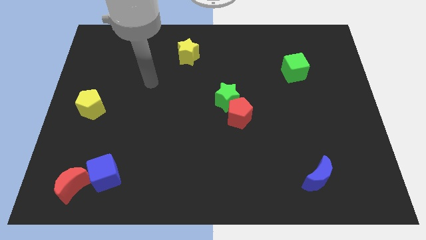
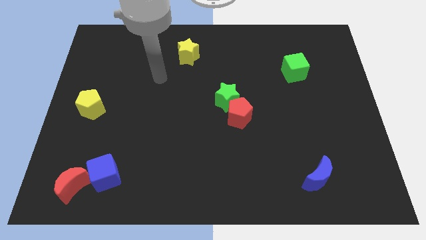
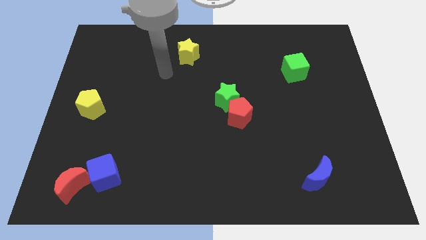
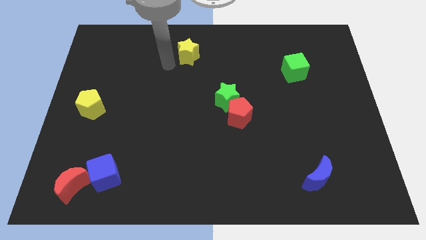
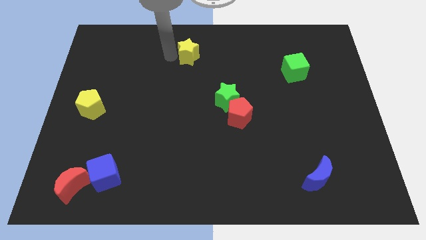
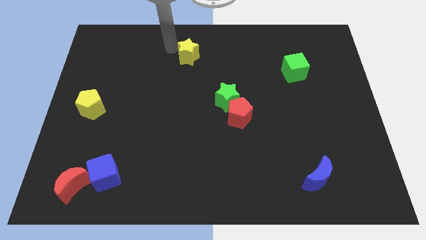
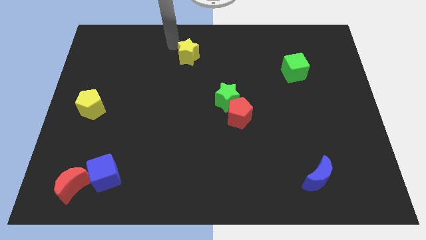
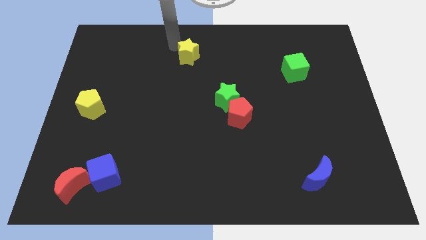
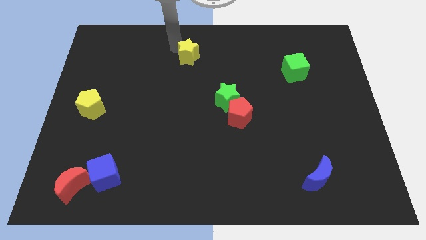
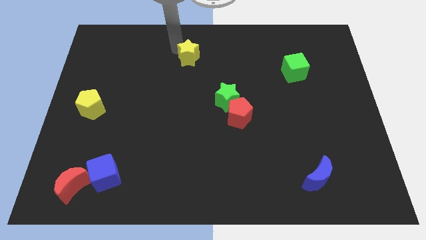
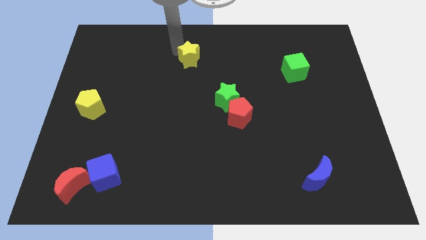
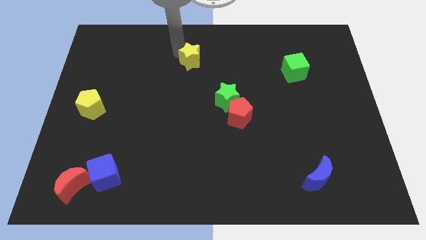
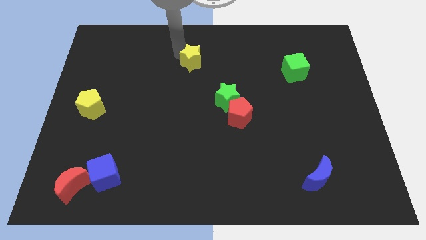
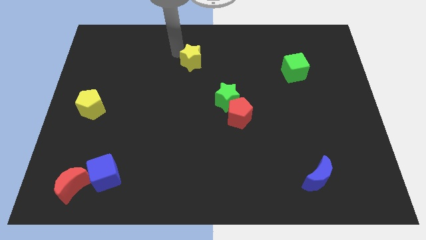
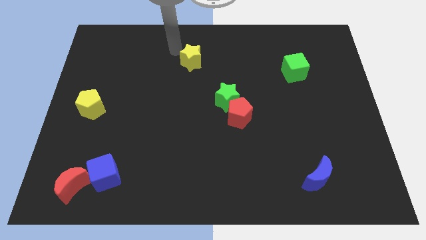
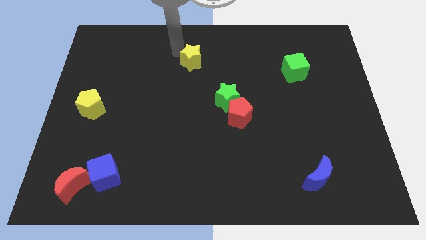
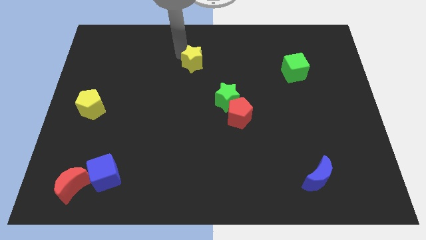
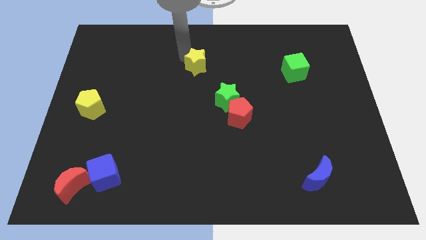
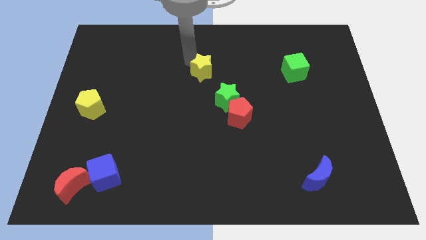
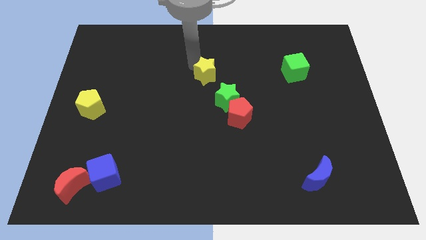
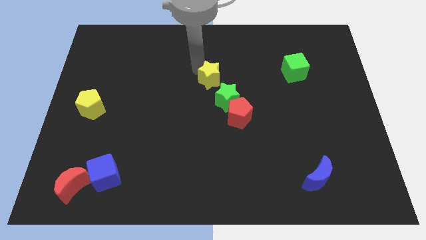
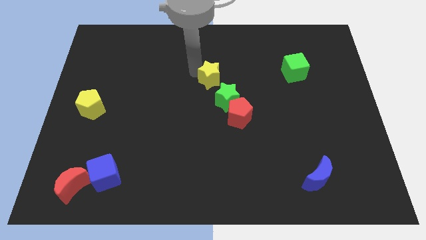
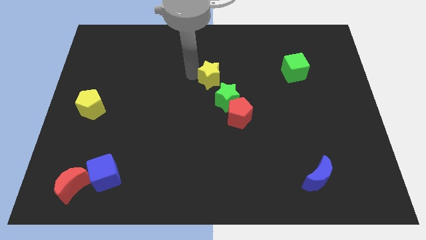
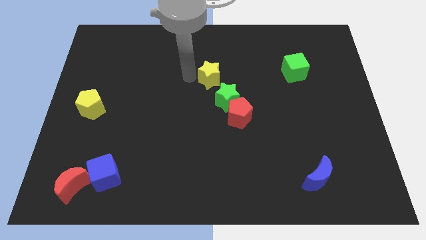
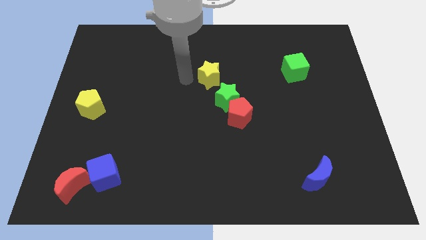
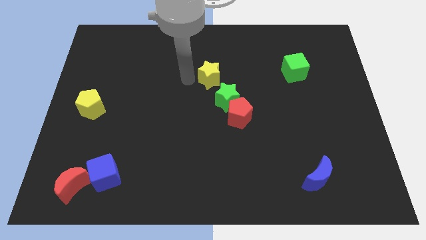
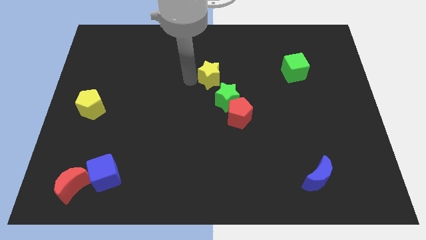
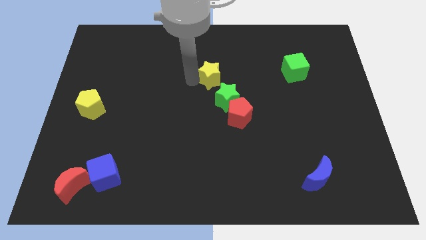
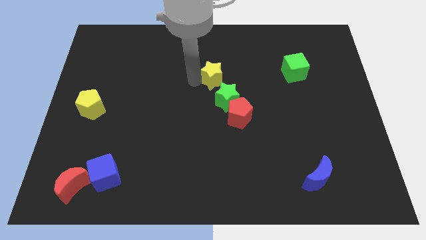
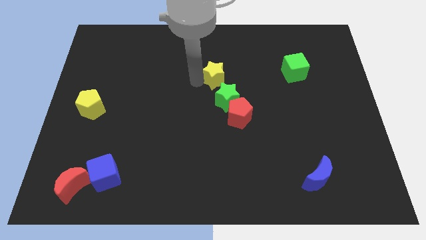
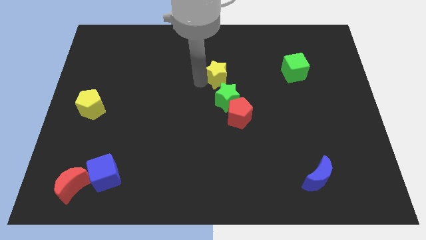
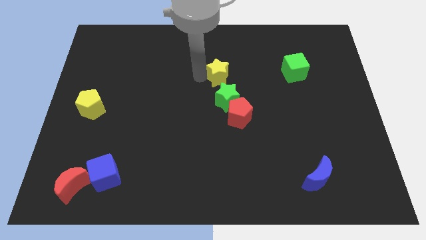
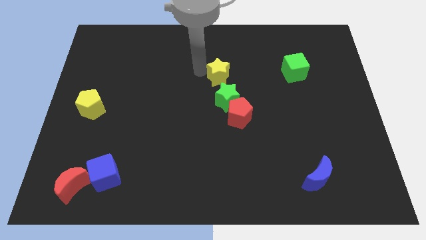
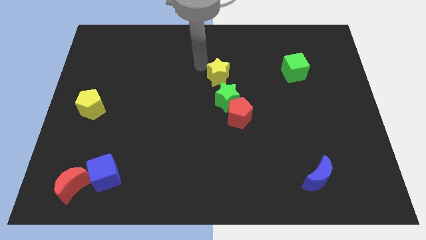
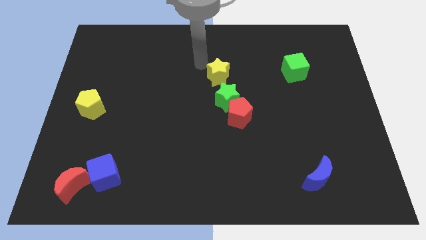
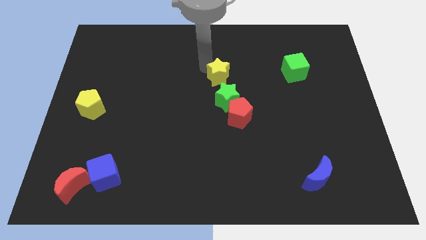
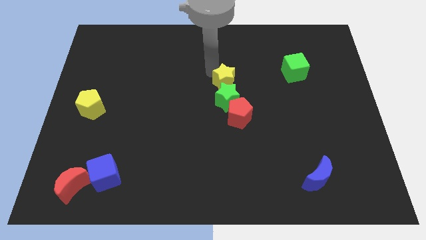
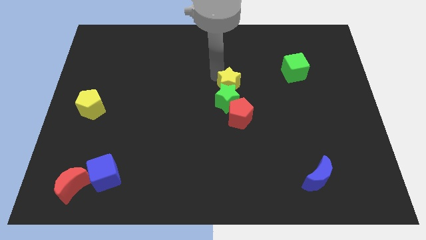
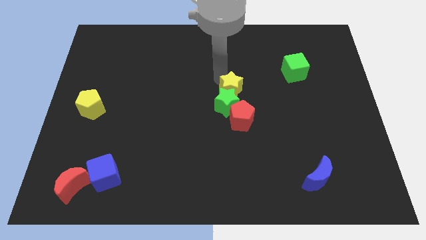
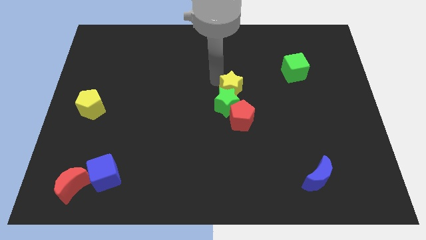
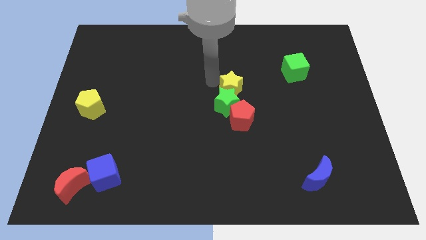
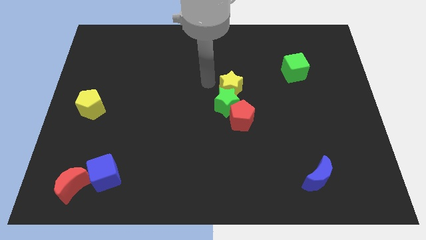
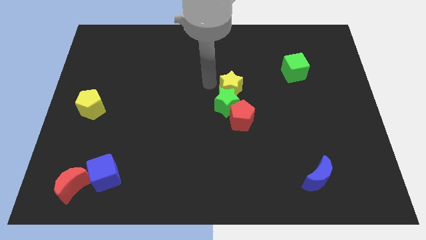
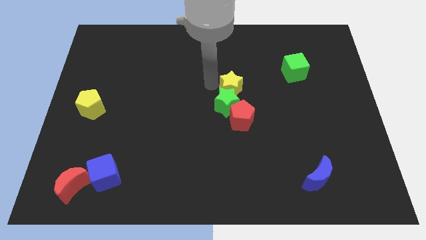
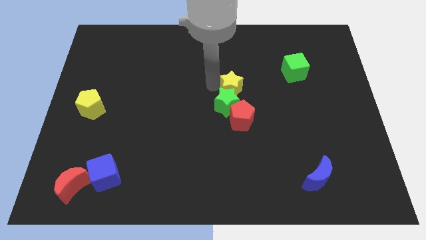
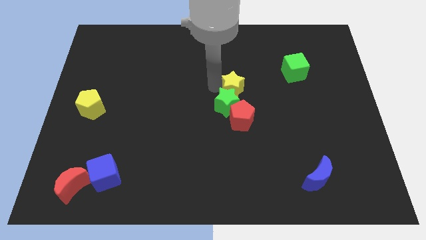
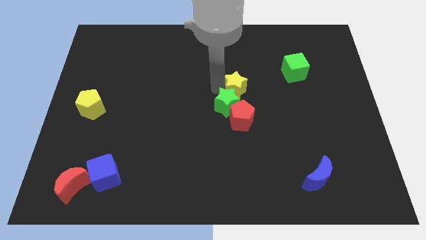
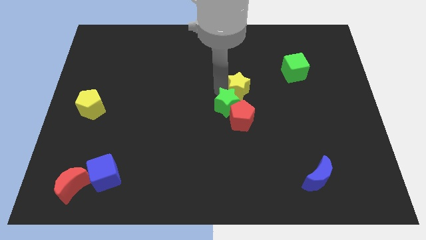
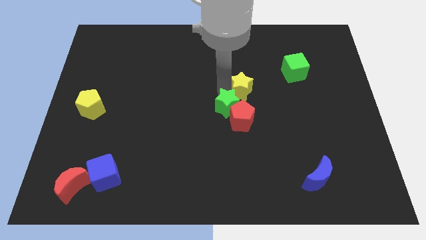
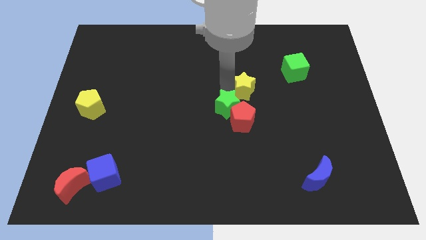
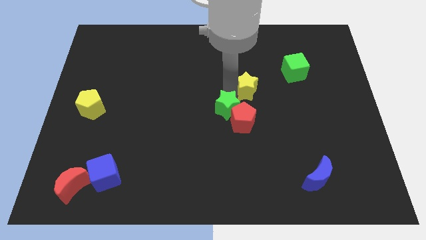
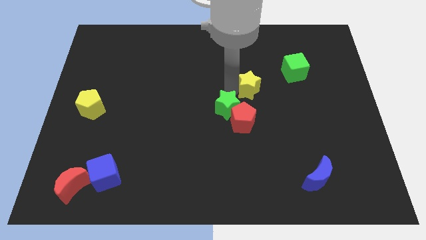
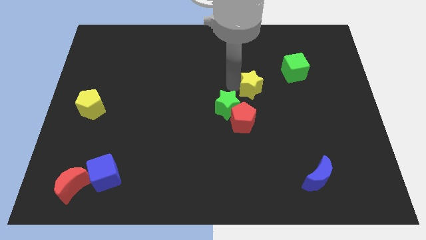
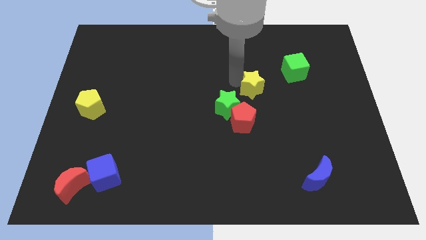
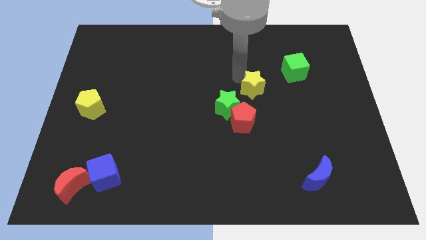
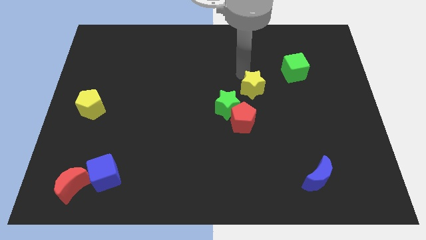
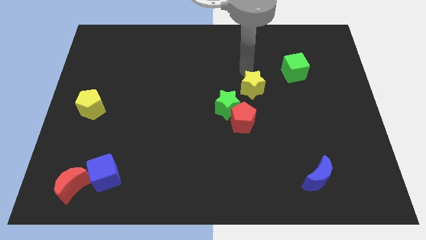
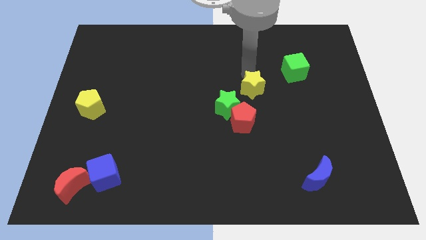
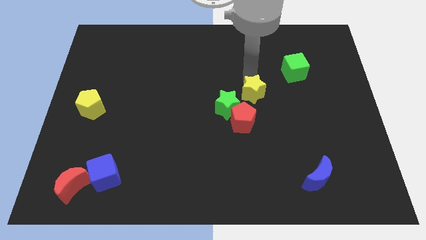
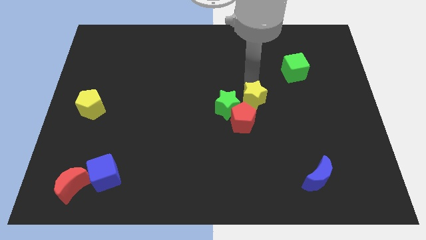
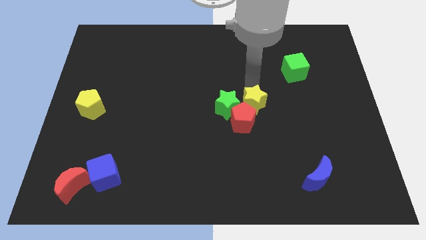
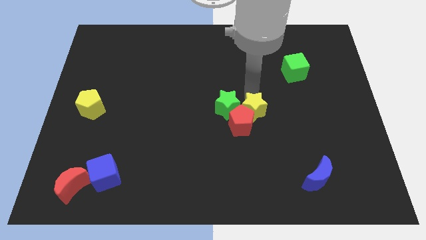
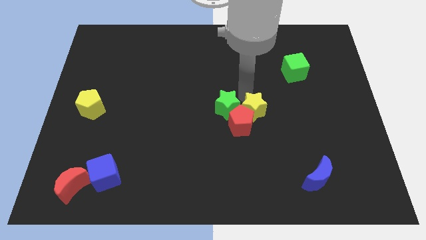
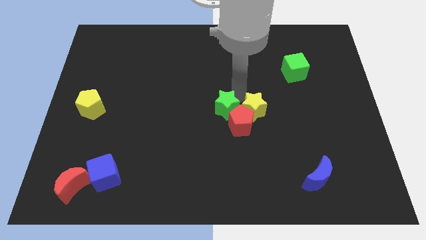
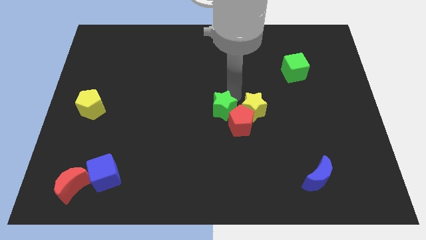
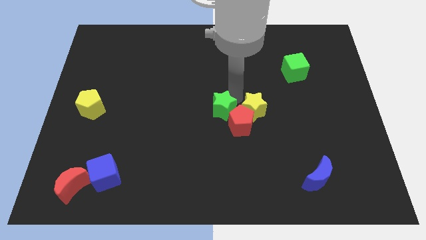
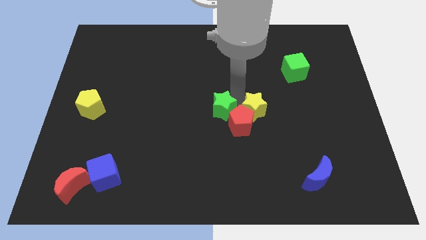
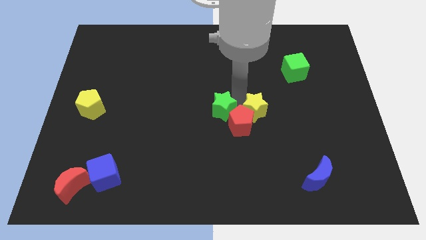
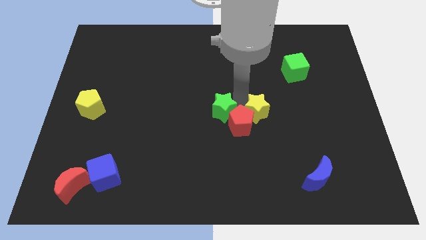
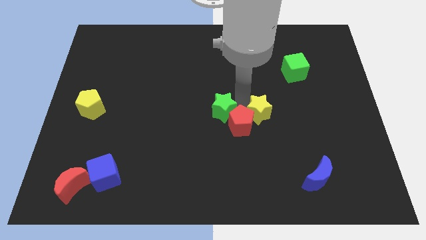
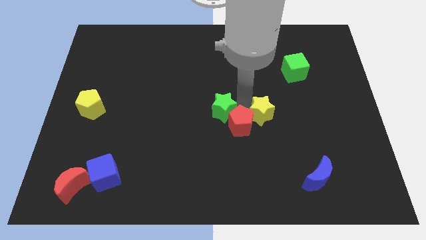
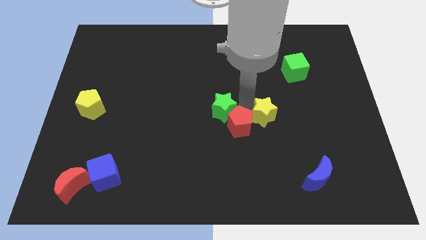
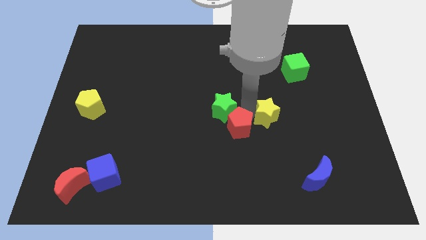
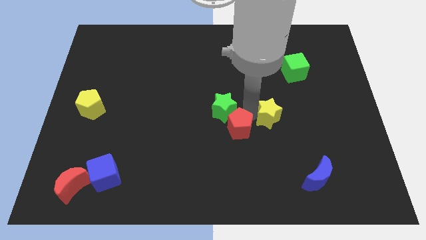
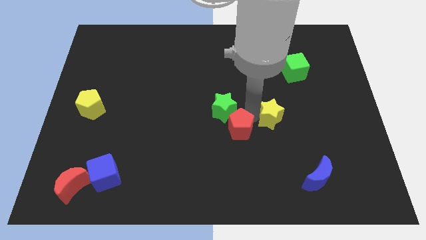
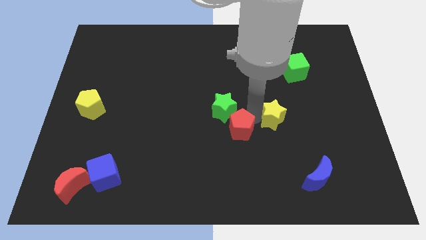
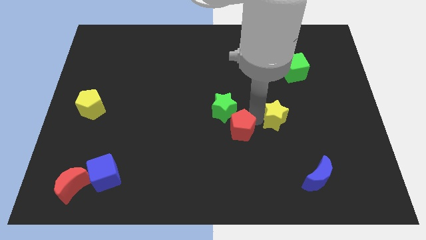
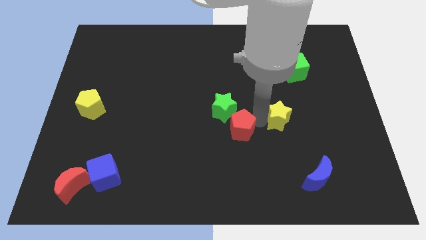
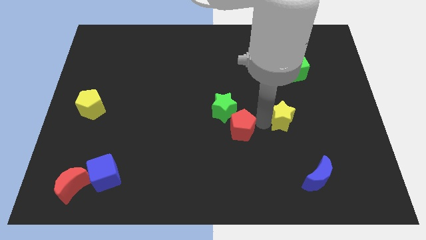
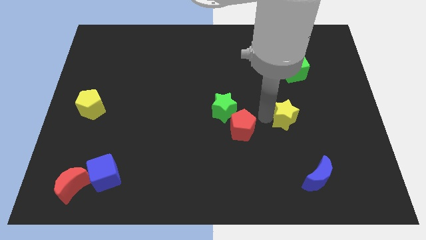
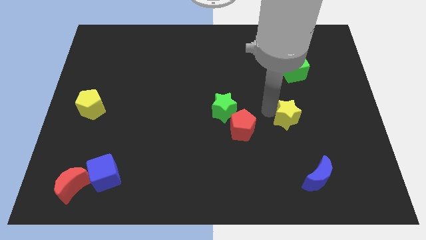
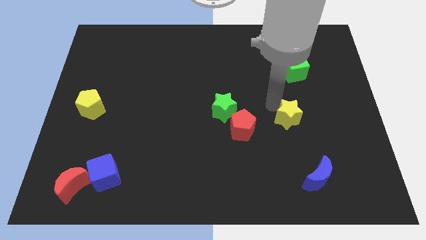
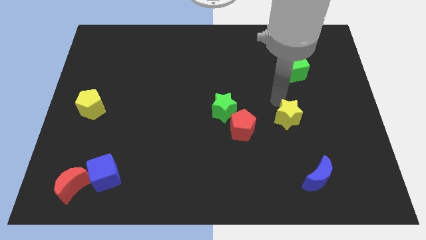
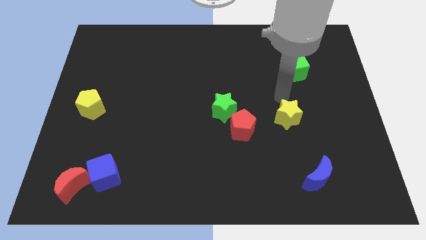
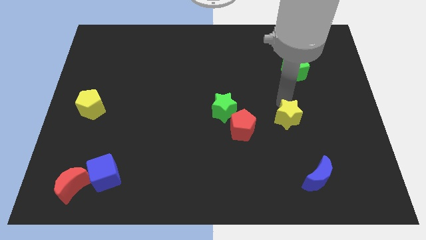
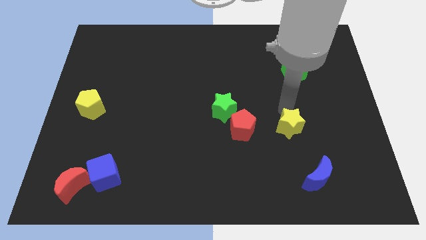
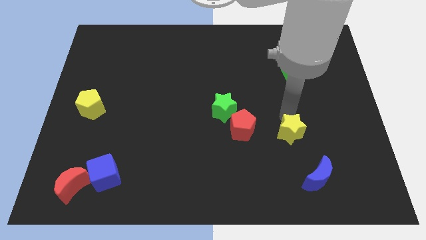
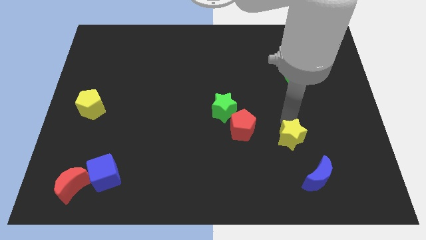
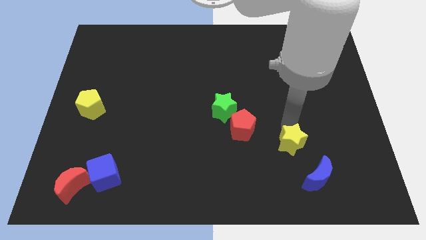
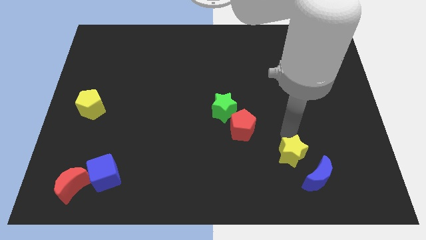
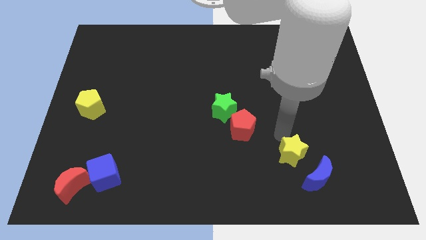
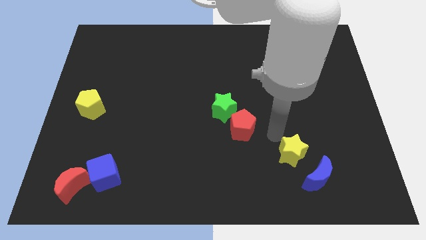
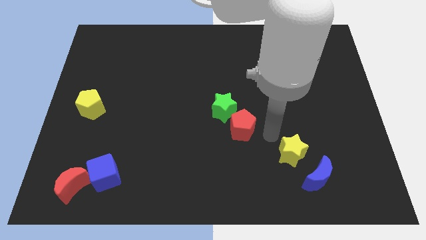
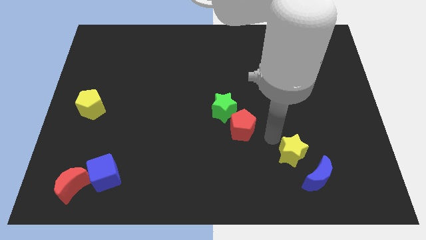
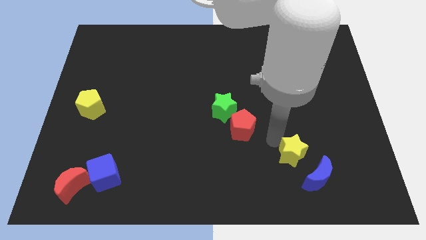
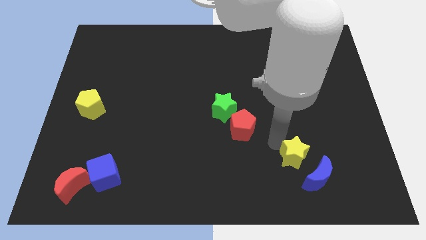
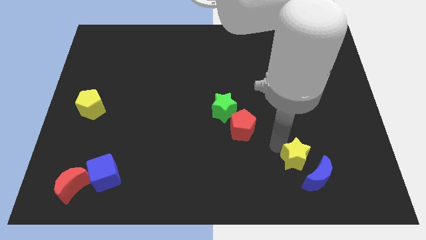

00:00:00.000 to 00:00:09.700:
move the yellow star close to the blue moon
